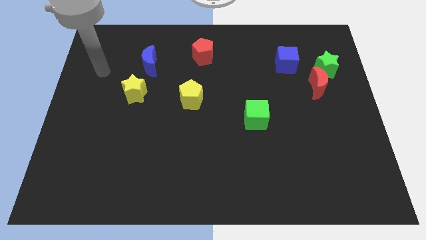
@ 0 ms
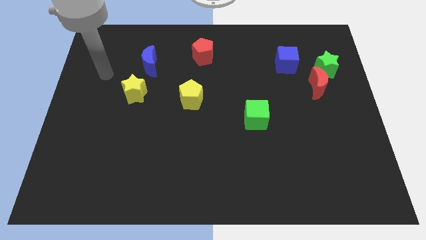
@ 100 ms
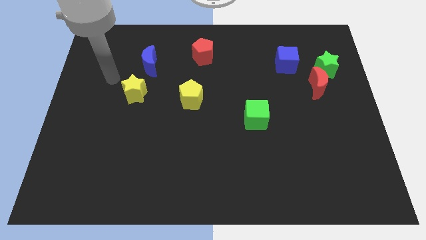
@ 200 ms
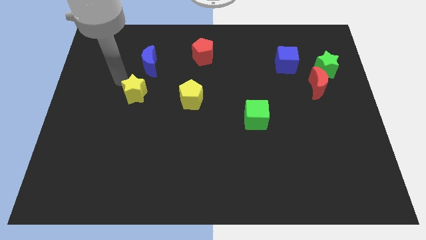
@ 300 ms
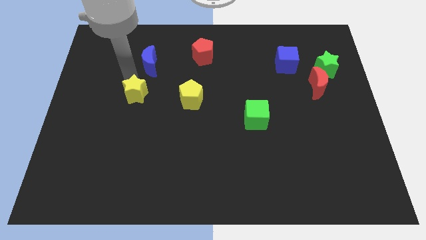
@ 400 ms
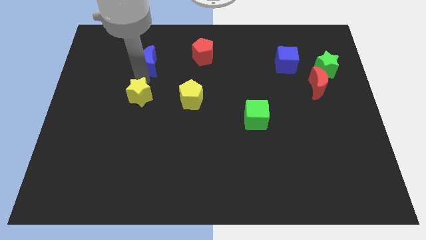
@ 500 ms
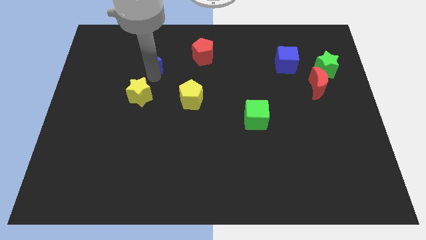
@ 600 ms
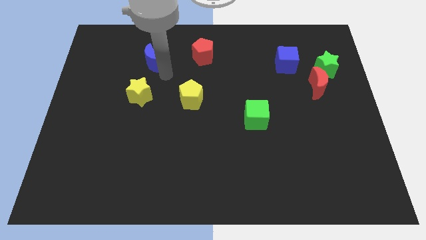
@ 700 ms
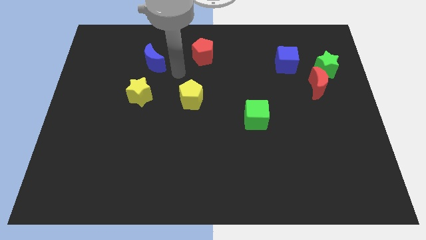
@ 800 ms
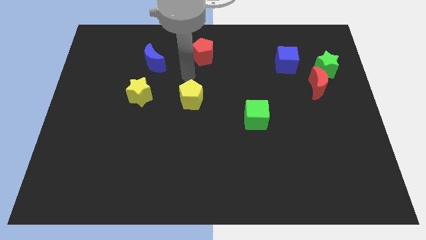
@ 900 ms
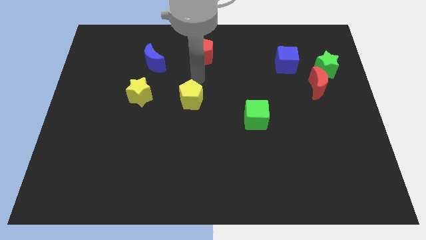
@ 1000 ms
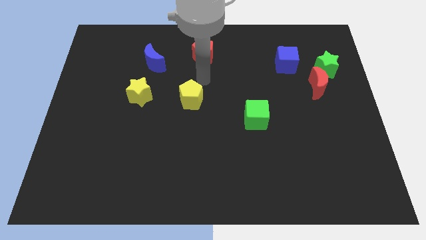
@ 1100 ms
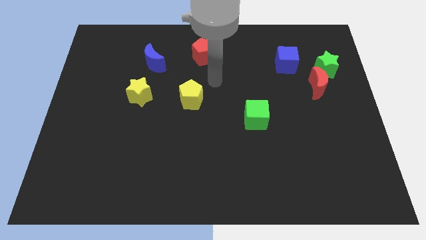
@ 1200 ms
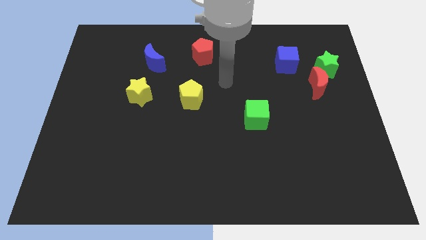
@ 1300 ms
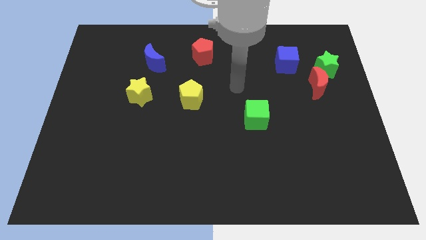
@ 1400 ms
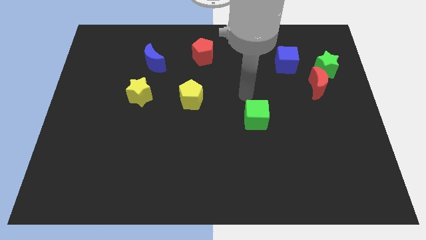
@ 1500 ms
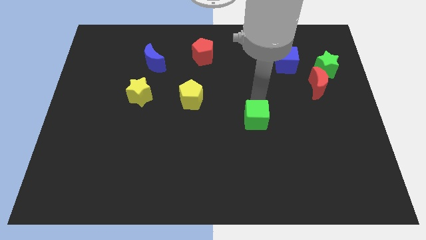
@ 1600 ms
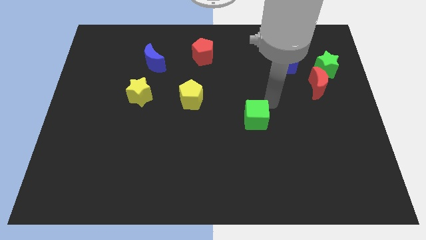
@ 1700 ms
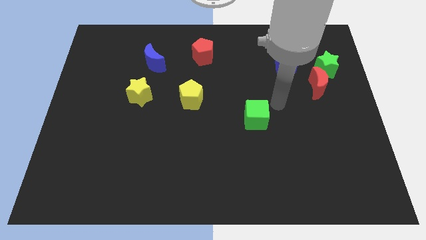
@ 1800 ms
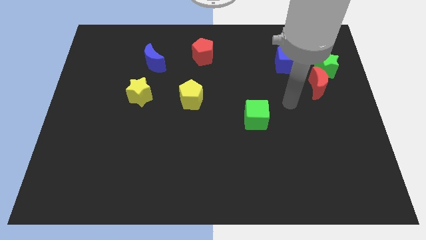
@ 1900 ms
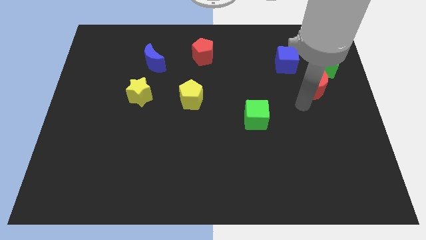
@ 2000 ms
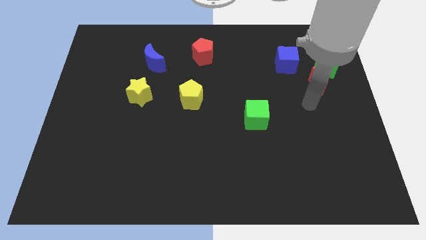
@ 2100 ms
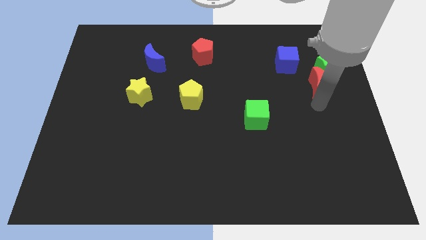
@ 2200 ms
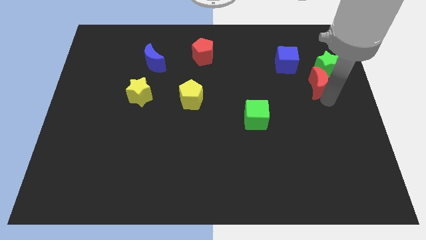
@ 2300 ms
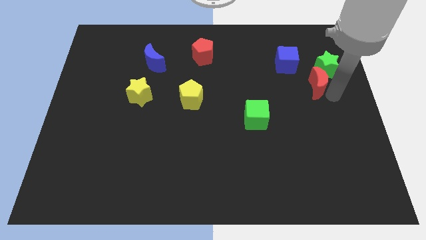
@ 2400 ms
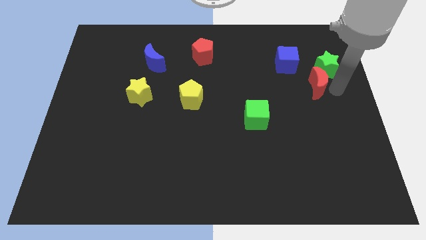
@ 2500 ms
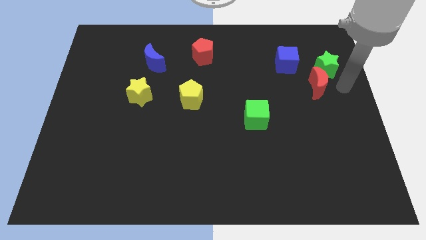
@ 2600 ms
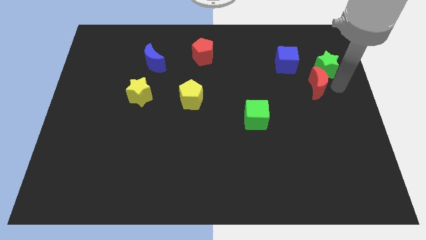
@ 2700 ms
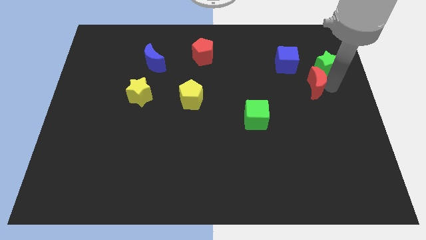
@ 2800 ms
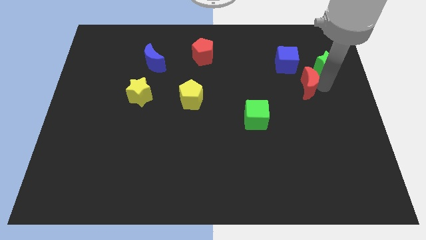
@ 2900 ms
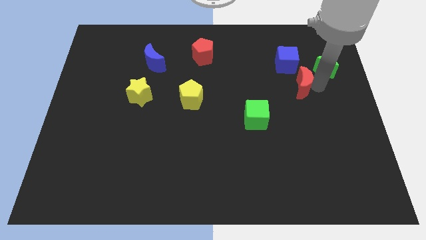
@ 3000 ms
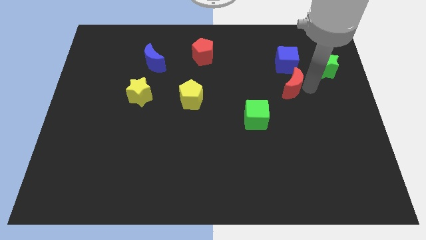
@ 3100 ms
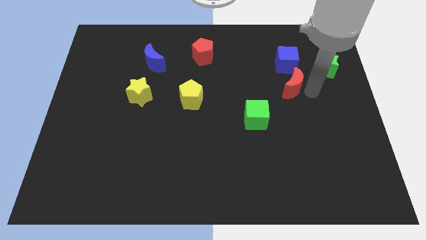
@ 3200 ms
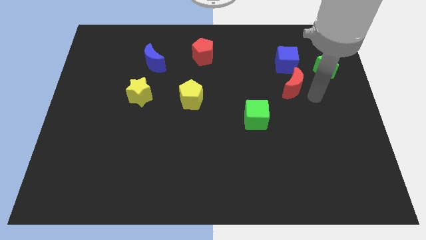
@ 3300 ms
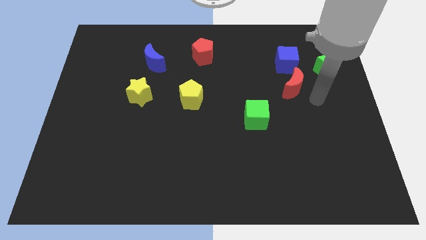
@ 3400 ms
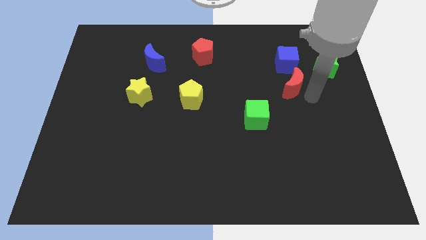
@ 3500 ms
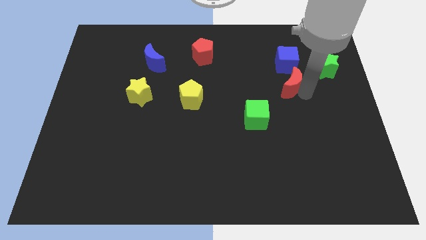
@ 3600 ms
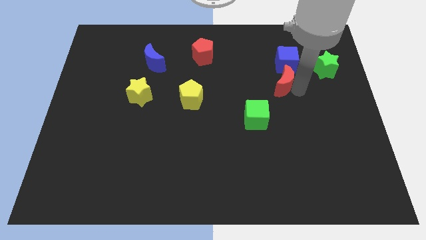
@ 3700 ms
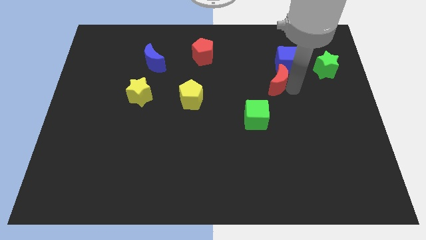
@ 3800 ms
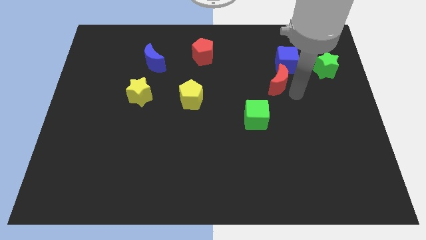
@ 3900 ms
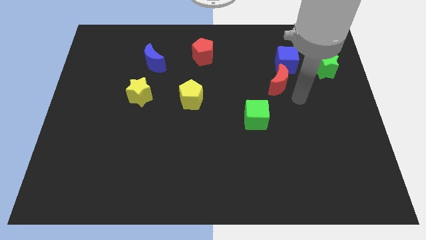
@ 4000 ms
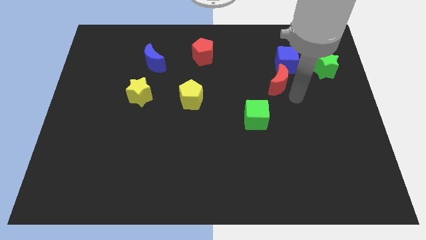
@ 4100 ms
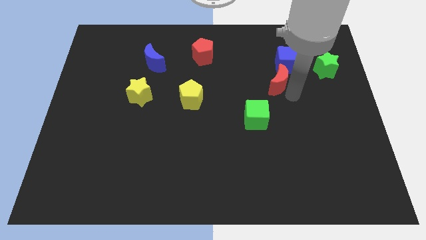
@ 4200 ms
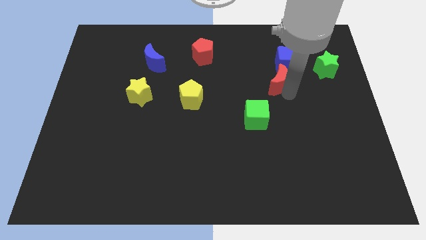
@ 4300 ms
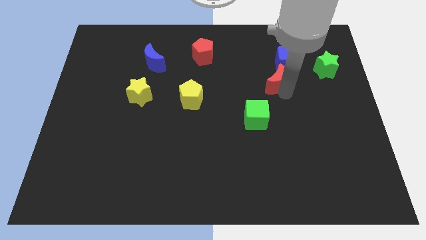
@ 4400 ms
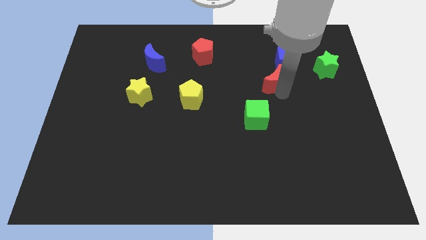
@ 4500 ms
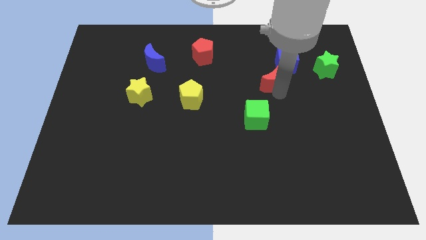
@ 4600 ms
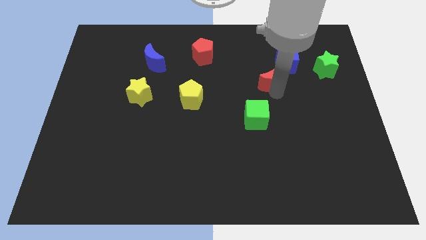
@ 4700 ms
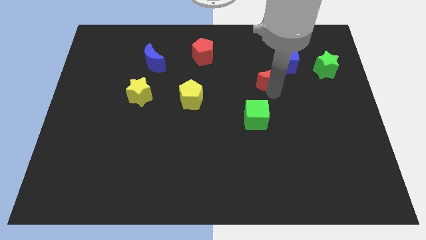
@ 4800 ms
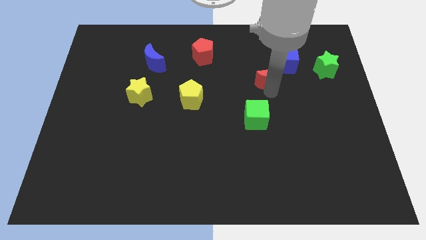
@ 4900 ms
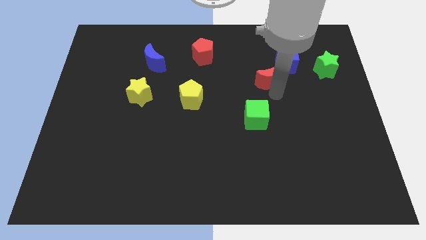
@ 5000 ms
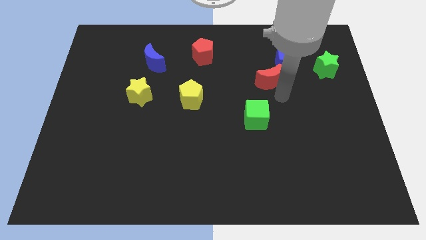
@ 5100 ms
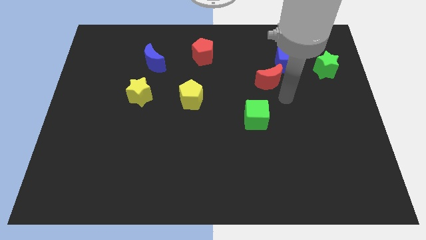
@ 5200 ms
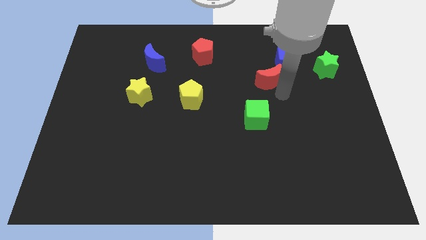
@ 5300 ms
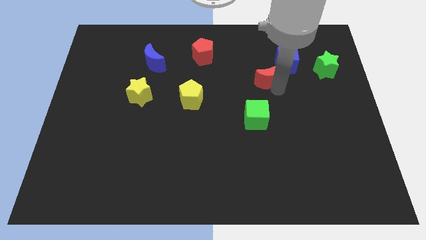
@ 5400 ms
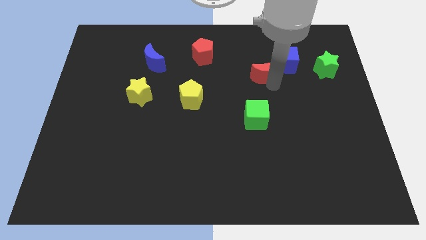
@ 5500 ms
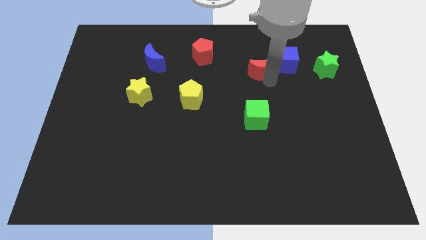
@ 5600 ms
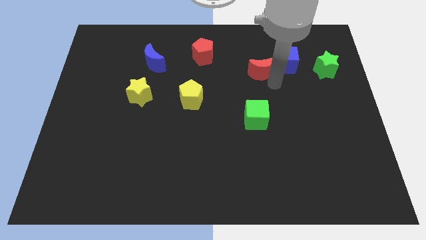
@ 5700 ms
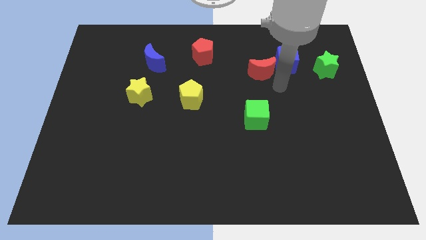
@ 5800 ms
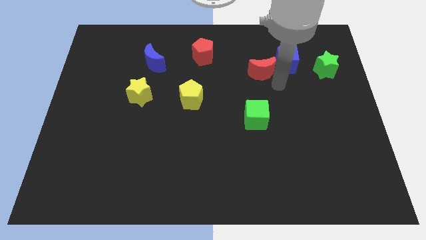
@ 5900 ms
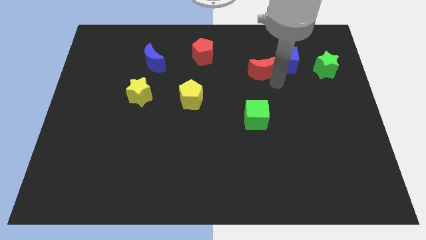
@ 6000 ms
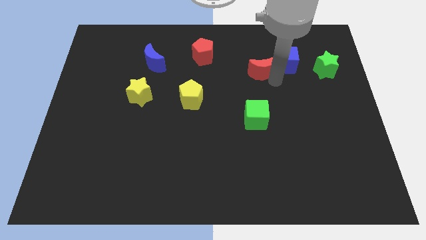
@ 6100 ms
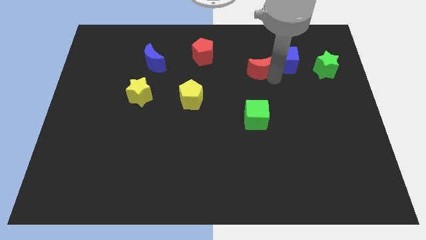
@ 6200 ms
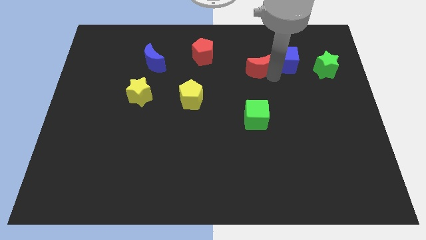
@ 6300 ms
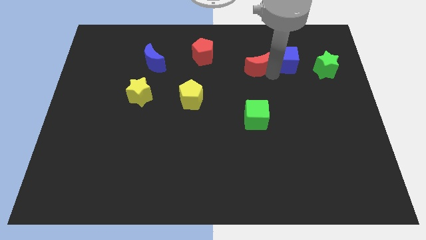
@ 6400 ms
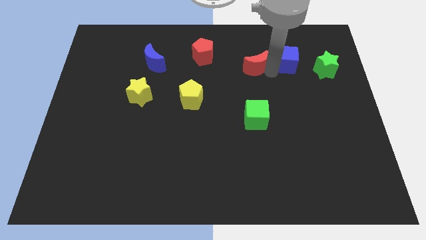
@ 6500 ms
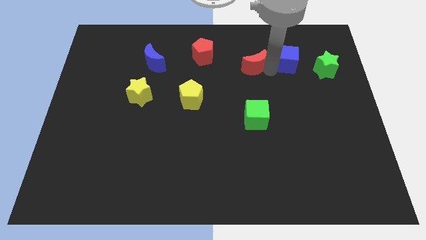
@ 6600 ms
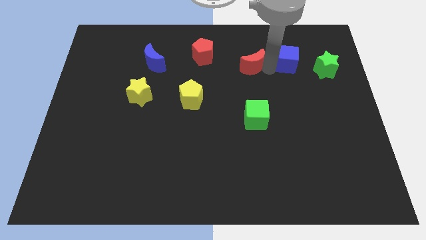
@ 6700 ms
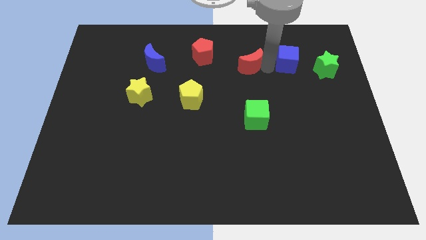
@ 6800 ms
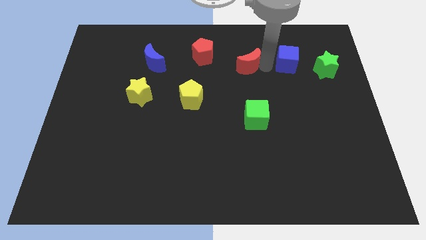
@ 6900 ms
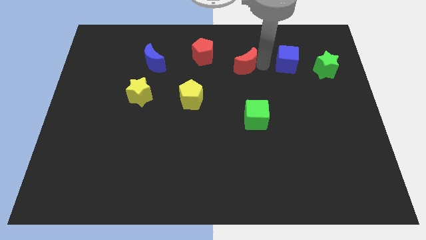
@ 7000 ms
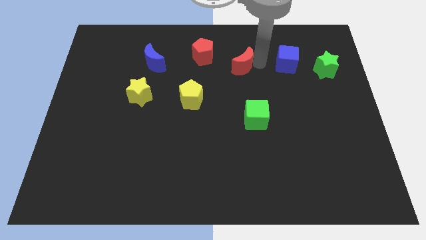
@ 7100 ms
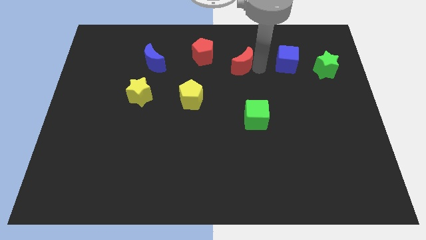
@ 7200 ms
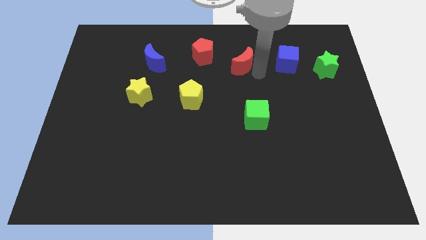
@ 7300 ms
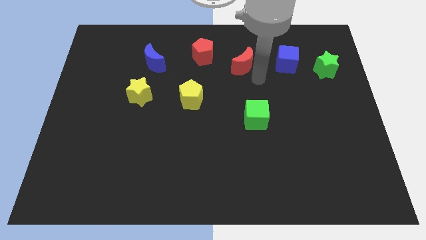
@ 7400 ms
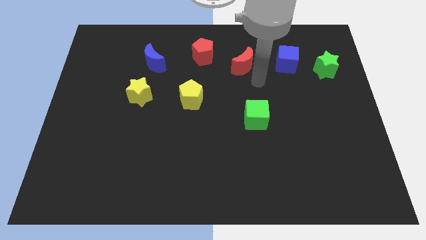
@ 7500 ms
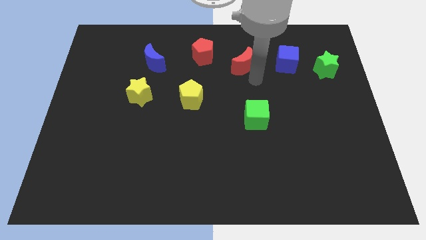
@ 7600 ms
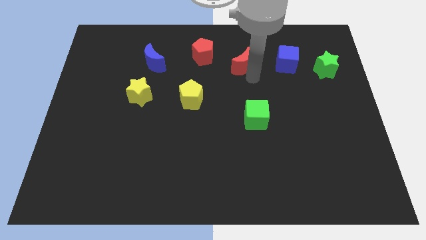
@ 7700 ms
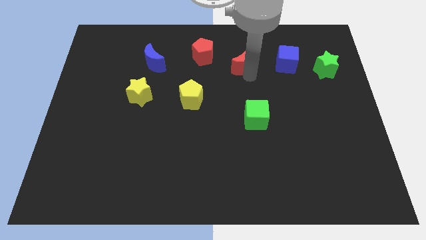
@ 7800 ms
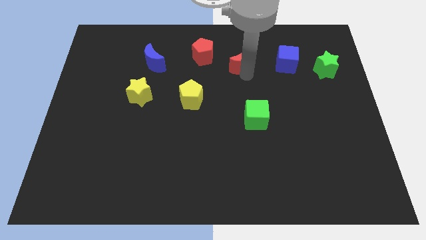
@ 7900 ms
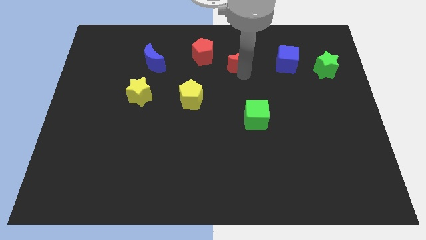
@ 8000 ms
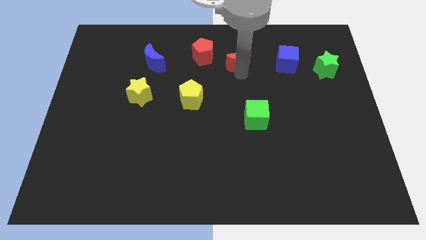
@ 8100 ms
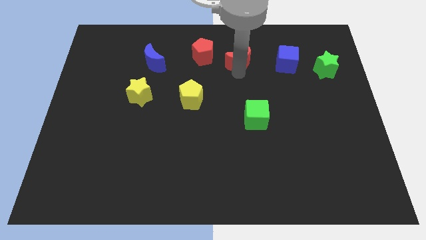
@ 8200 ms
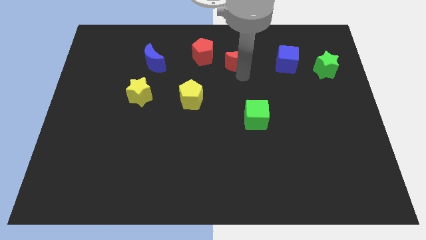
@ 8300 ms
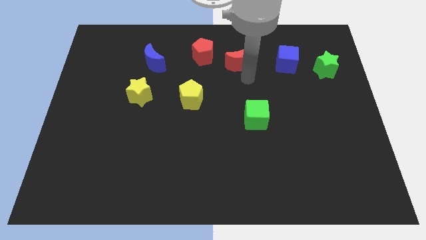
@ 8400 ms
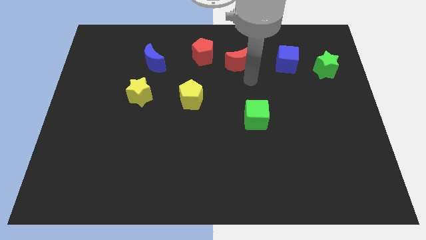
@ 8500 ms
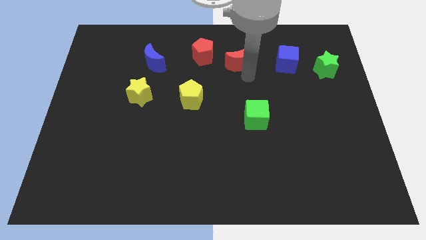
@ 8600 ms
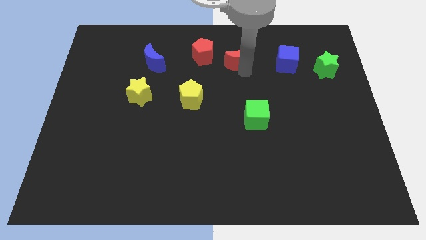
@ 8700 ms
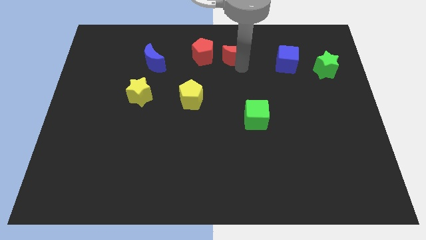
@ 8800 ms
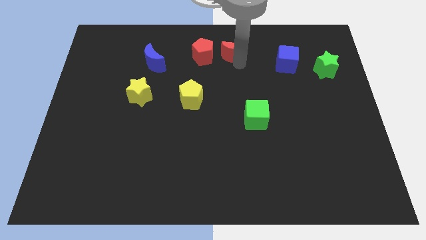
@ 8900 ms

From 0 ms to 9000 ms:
put the red moon to the top
